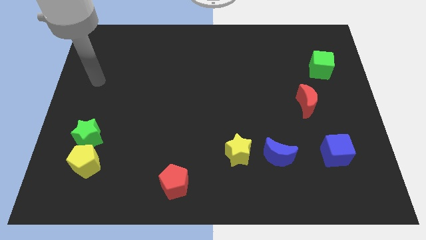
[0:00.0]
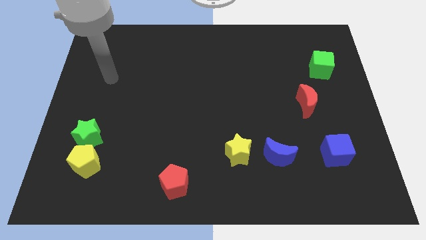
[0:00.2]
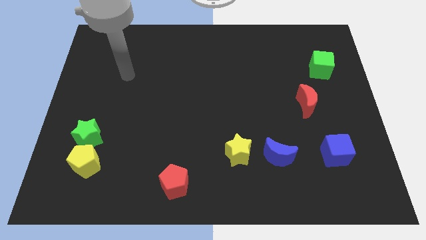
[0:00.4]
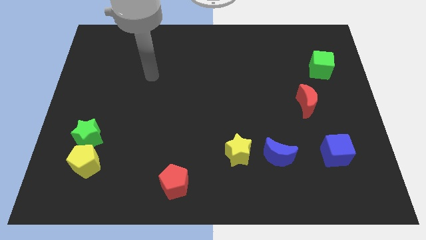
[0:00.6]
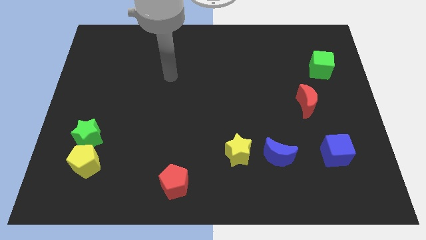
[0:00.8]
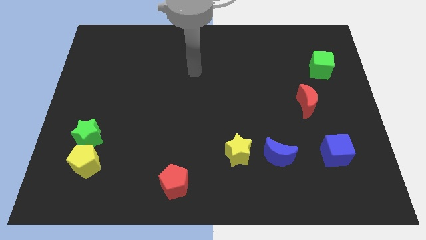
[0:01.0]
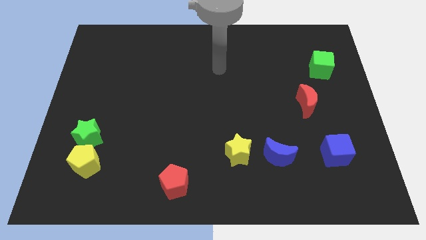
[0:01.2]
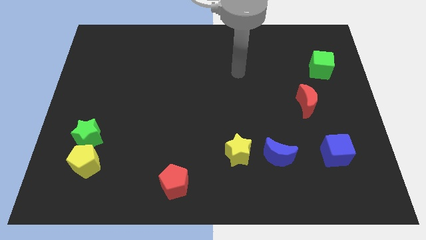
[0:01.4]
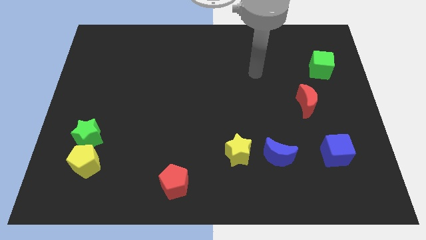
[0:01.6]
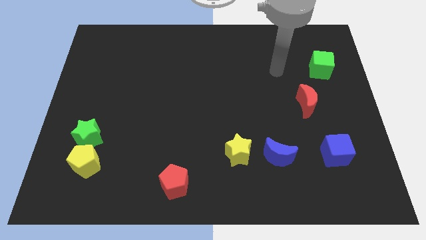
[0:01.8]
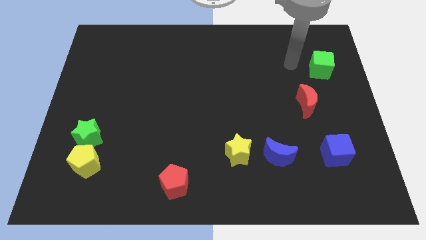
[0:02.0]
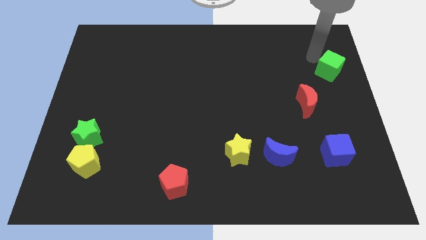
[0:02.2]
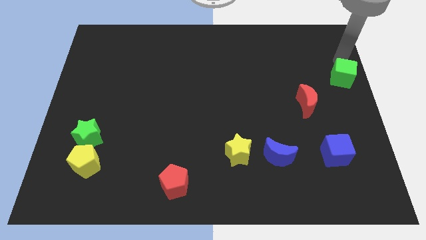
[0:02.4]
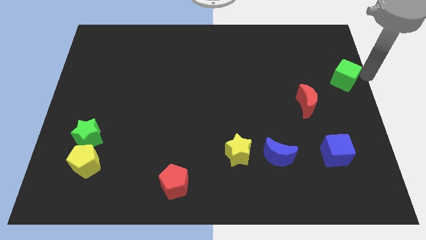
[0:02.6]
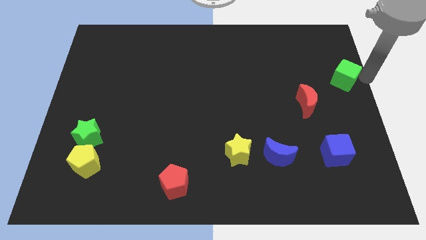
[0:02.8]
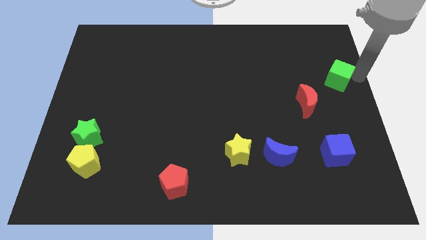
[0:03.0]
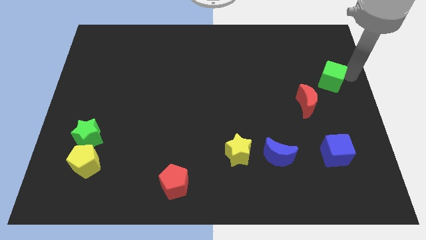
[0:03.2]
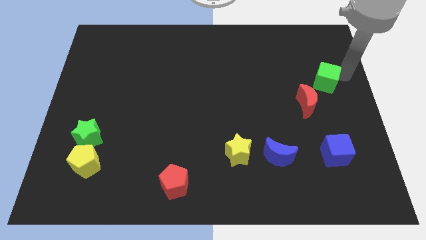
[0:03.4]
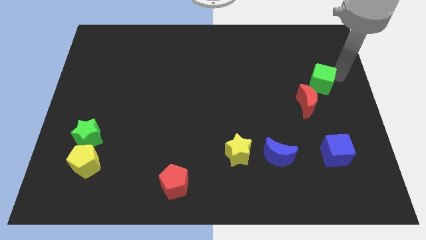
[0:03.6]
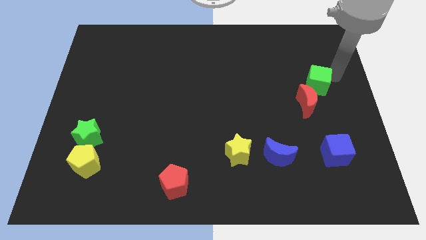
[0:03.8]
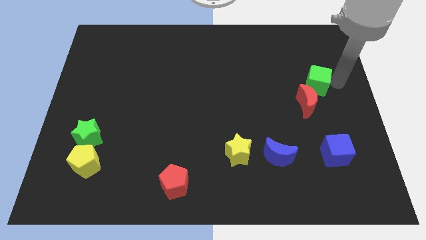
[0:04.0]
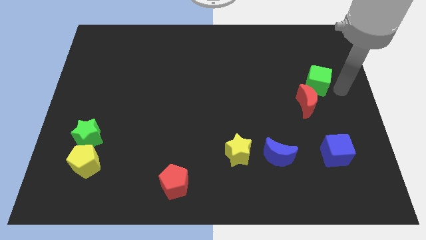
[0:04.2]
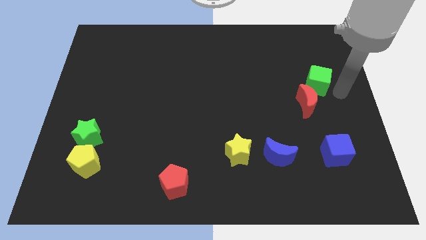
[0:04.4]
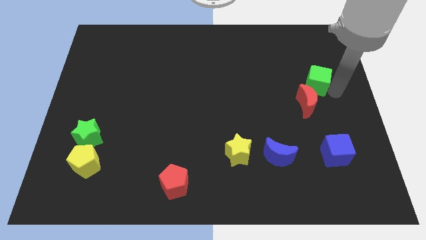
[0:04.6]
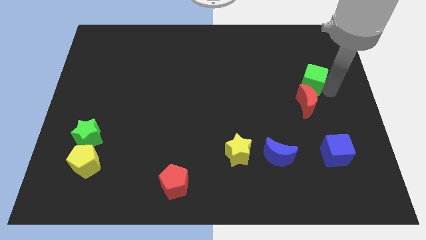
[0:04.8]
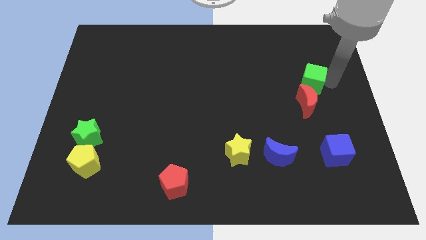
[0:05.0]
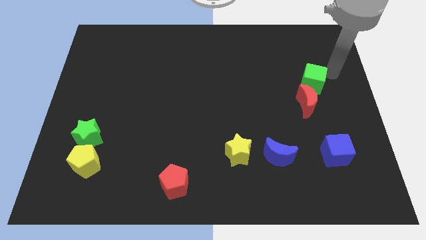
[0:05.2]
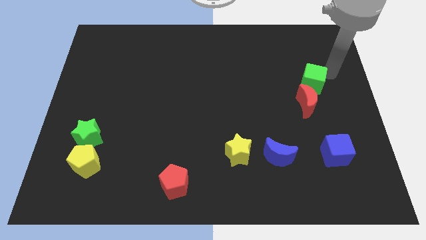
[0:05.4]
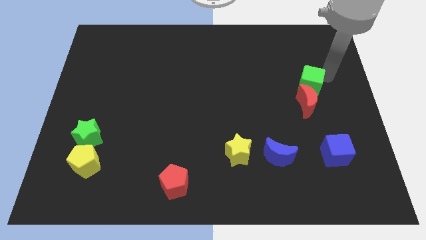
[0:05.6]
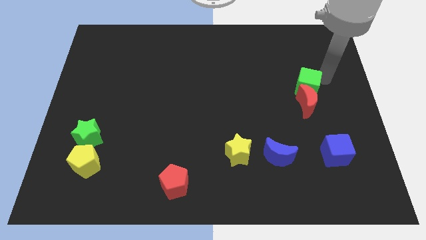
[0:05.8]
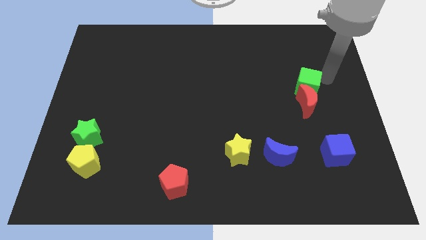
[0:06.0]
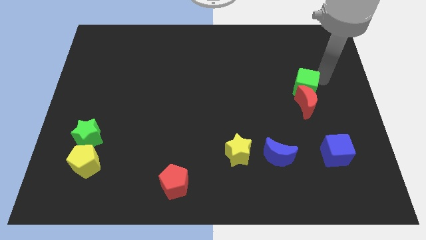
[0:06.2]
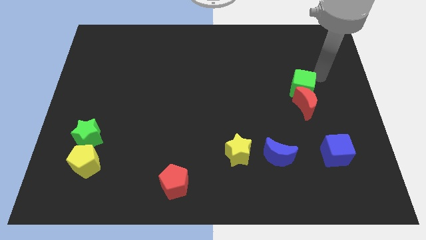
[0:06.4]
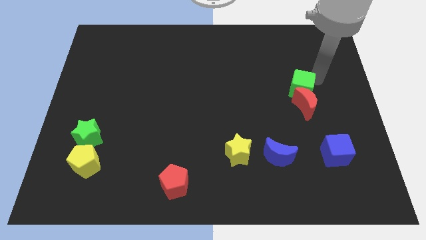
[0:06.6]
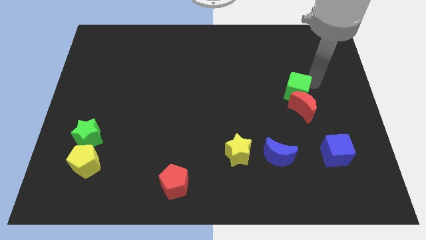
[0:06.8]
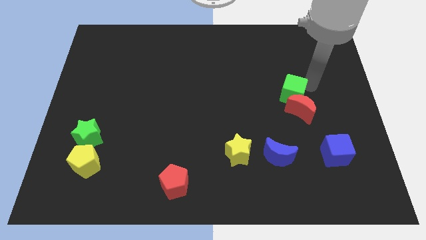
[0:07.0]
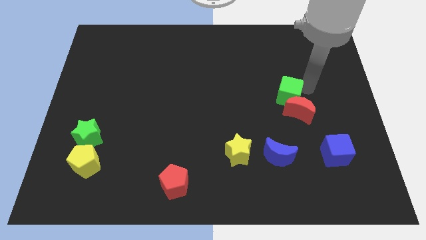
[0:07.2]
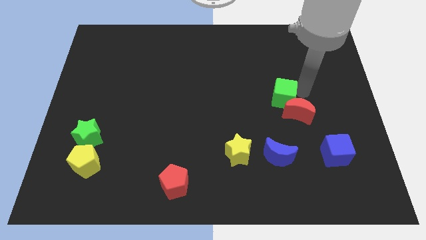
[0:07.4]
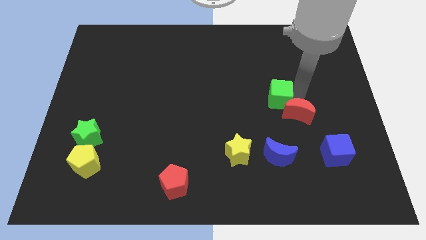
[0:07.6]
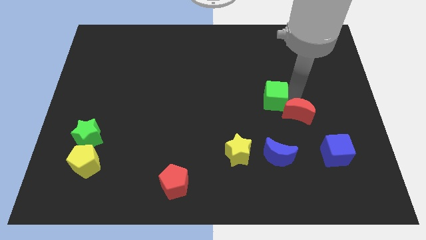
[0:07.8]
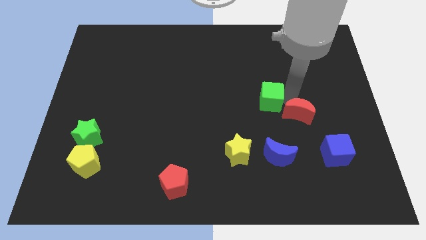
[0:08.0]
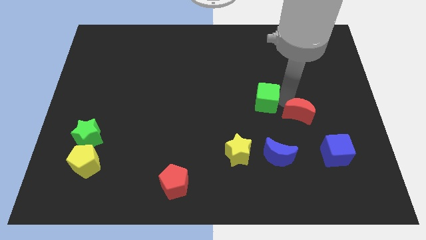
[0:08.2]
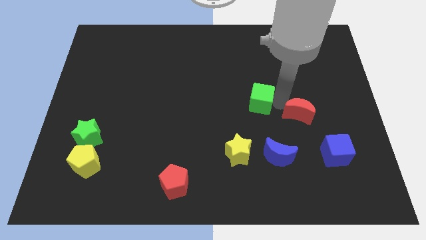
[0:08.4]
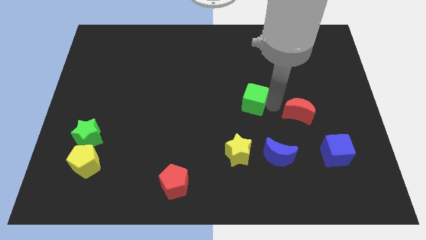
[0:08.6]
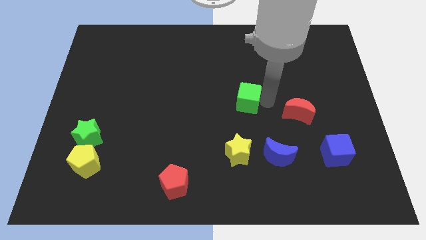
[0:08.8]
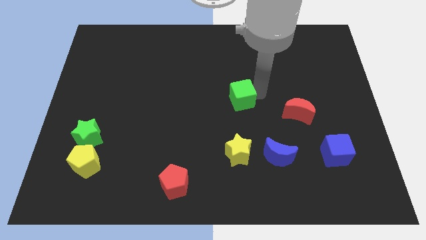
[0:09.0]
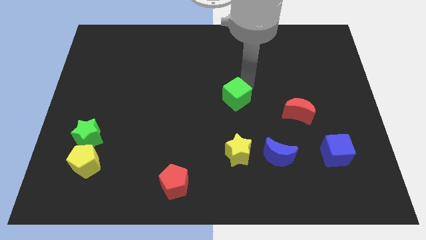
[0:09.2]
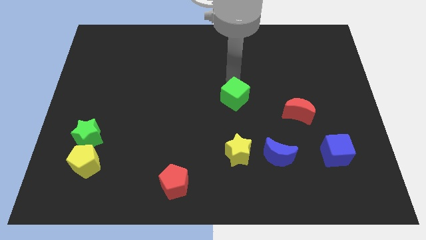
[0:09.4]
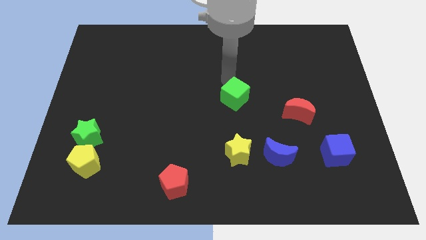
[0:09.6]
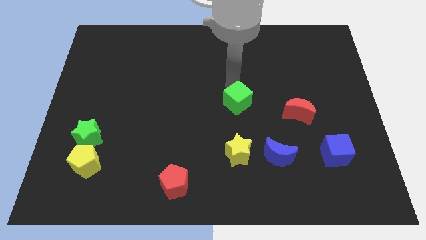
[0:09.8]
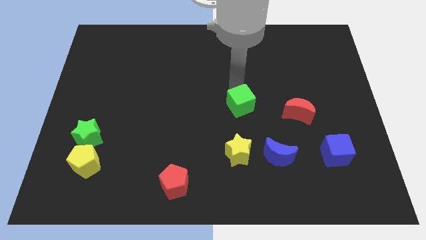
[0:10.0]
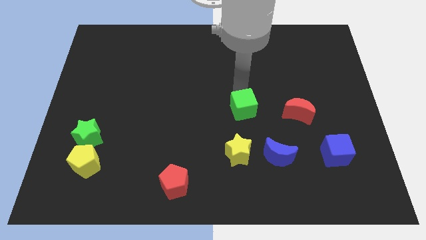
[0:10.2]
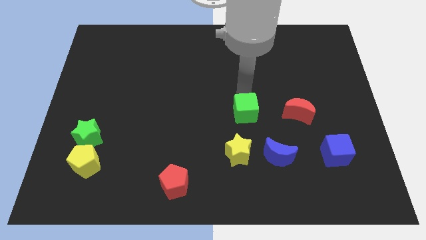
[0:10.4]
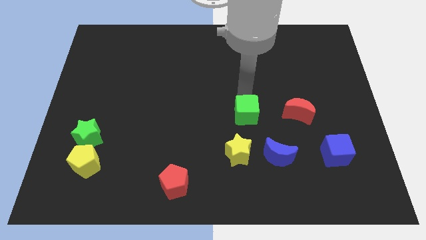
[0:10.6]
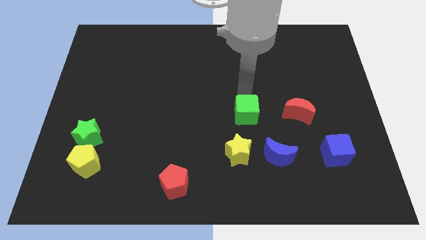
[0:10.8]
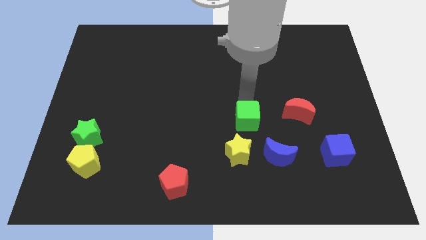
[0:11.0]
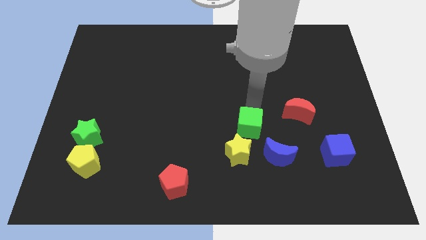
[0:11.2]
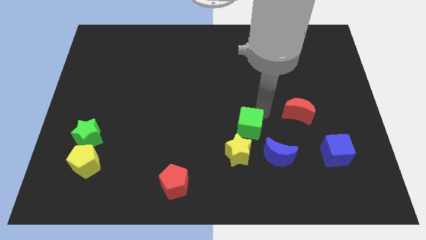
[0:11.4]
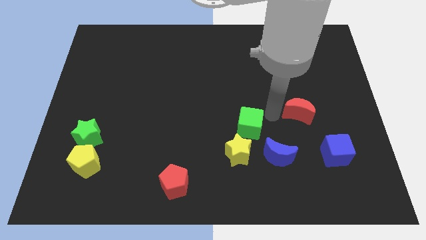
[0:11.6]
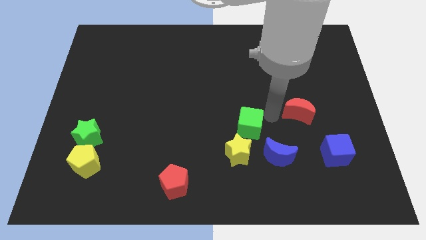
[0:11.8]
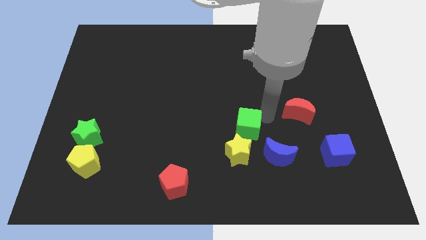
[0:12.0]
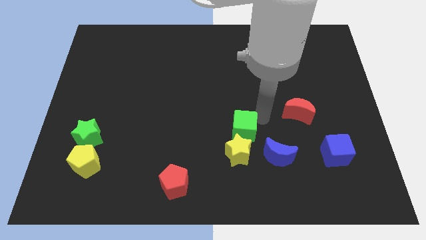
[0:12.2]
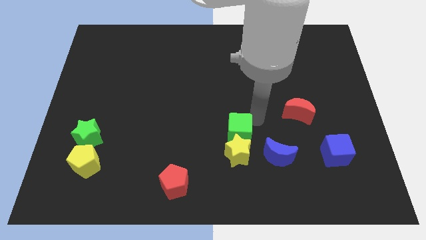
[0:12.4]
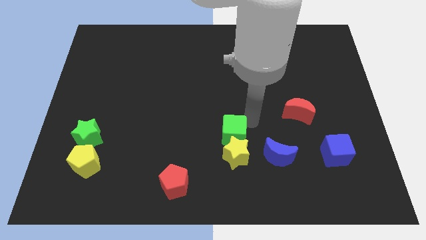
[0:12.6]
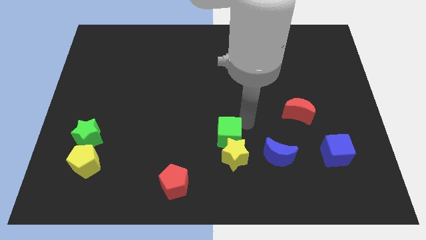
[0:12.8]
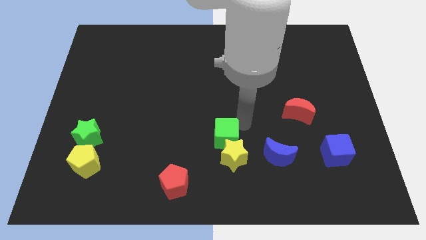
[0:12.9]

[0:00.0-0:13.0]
put the green cube to the left of the blue moon

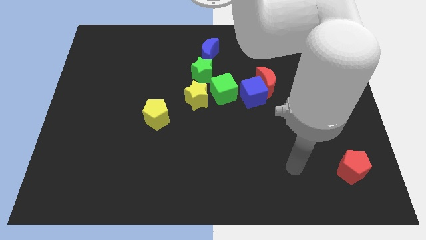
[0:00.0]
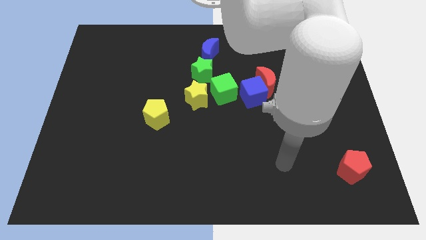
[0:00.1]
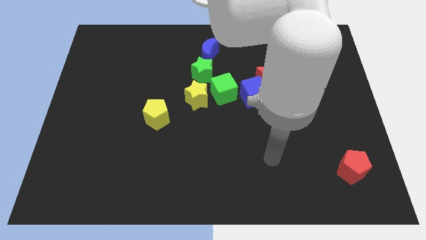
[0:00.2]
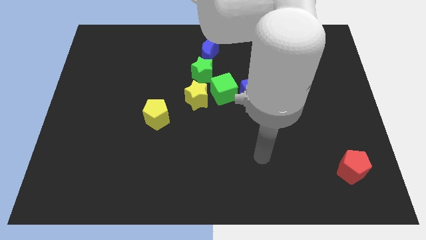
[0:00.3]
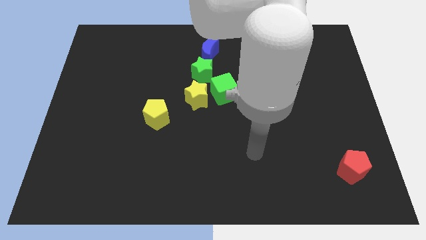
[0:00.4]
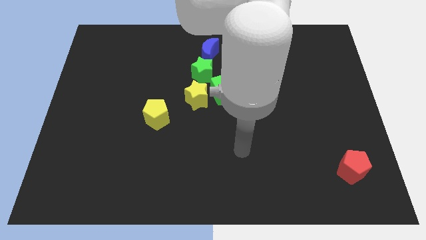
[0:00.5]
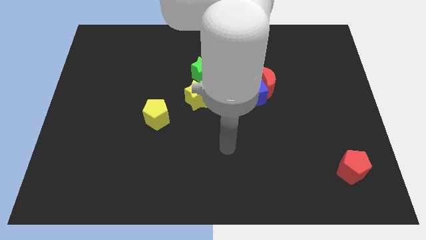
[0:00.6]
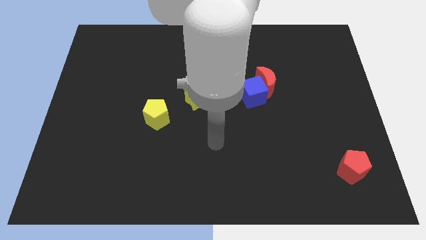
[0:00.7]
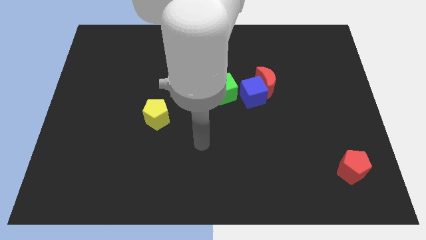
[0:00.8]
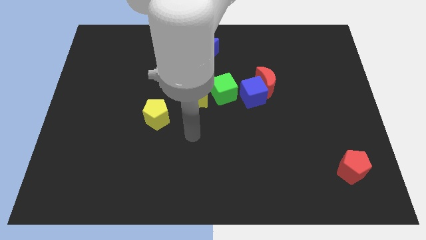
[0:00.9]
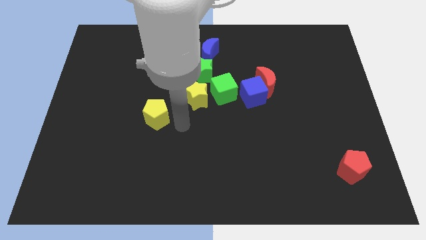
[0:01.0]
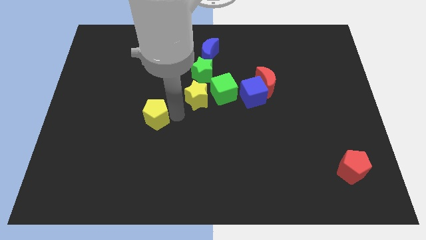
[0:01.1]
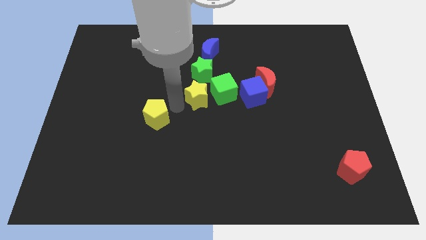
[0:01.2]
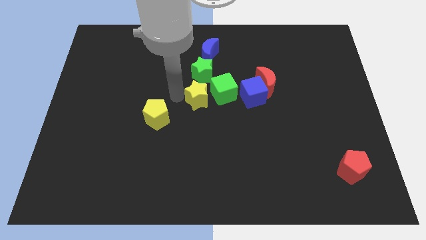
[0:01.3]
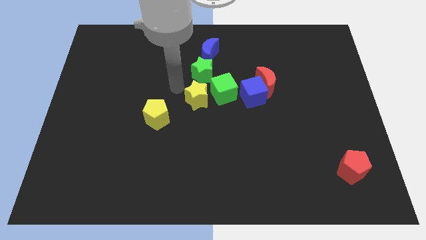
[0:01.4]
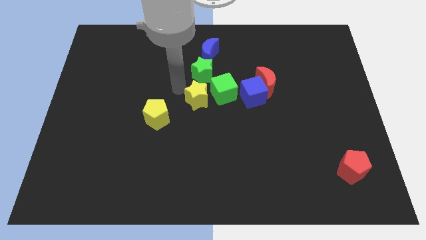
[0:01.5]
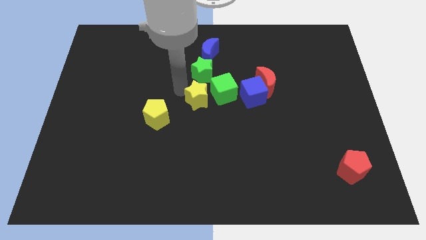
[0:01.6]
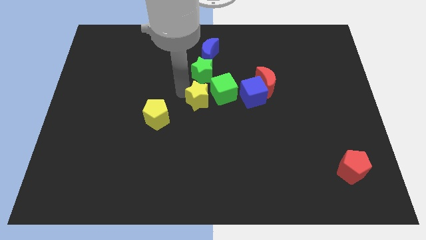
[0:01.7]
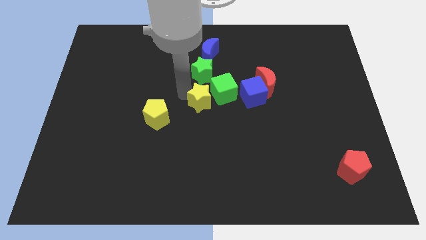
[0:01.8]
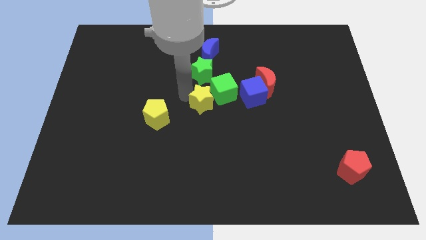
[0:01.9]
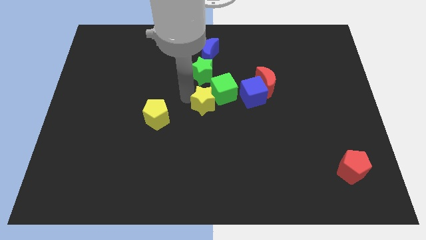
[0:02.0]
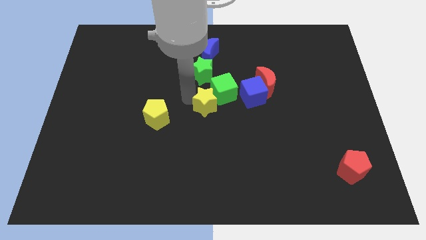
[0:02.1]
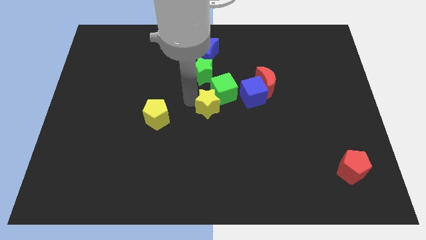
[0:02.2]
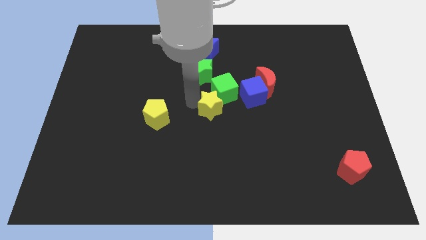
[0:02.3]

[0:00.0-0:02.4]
put the yellow star to the bottom left side of the blue cube
